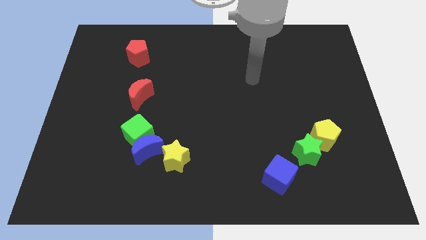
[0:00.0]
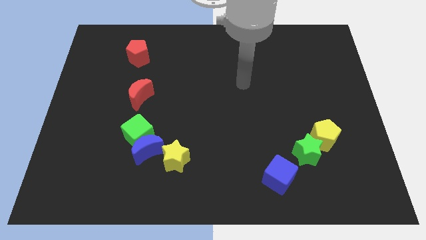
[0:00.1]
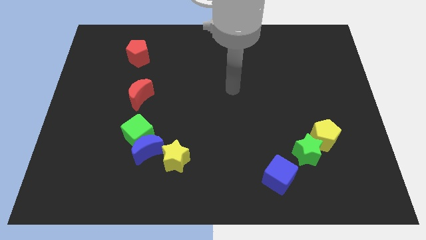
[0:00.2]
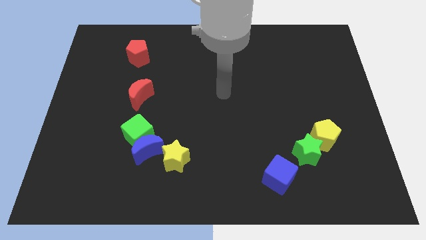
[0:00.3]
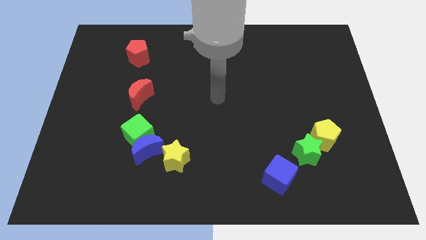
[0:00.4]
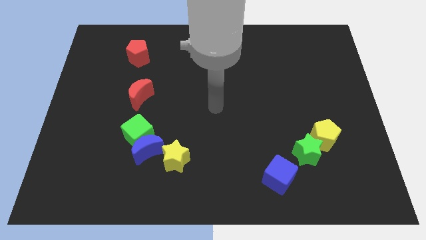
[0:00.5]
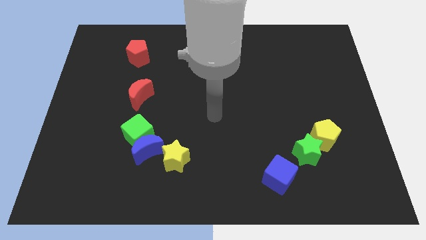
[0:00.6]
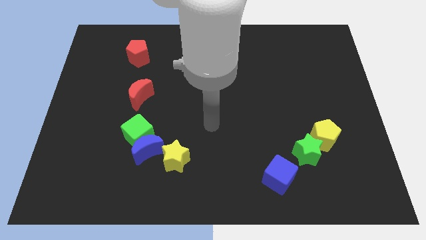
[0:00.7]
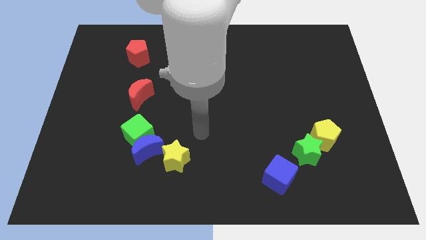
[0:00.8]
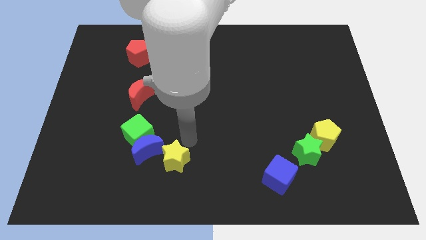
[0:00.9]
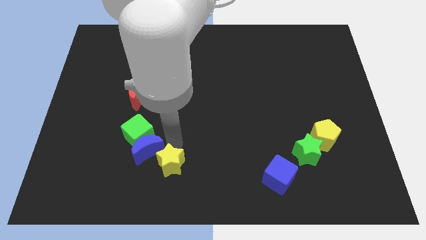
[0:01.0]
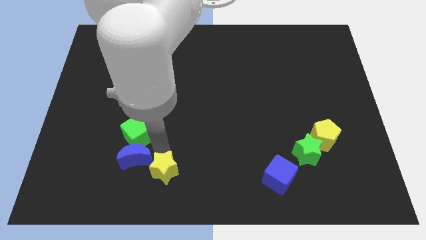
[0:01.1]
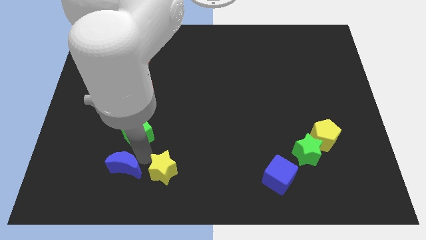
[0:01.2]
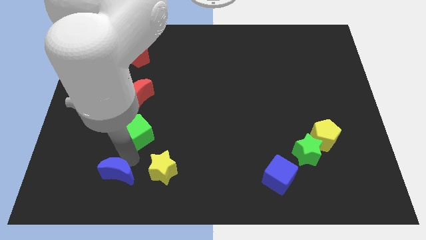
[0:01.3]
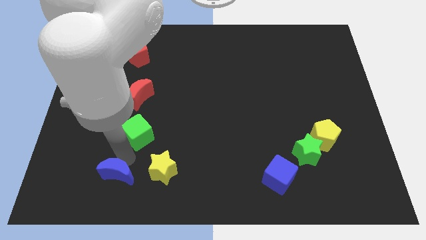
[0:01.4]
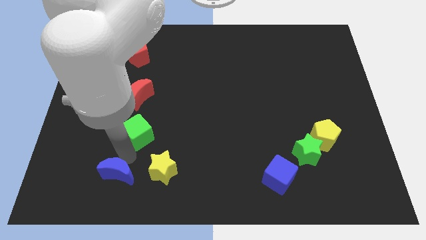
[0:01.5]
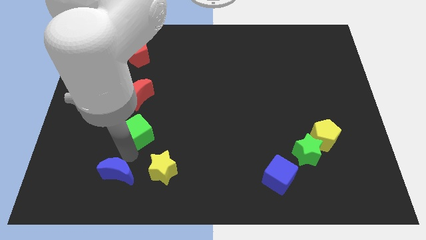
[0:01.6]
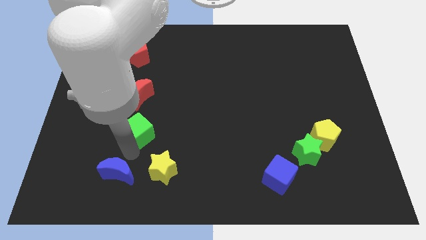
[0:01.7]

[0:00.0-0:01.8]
pull the green cube apart from the blue moon

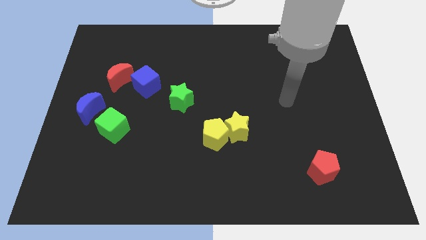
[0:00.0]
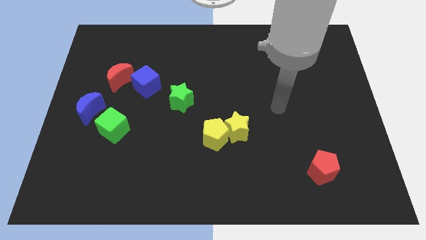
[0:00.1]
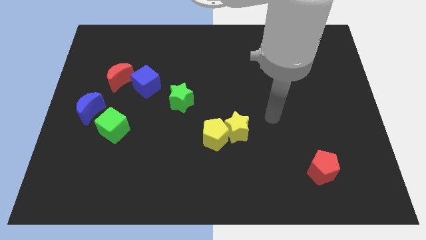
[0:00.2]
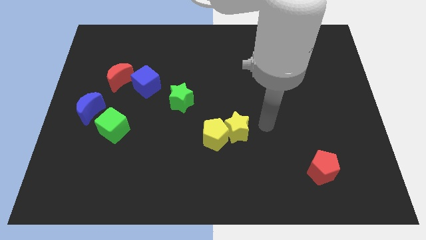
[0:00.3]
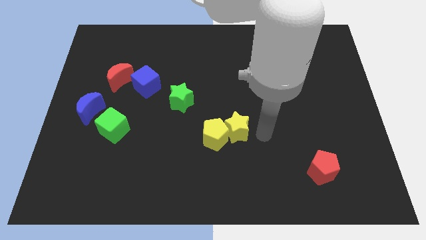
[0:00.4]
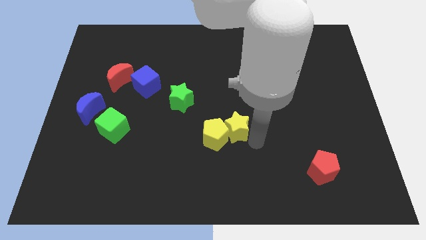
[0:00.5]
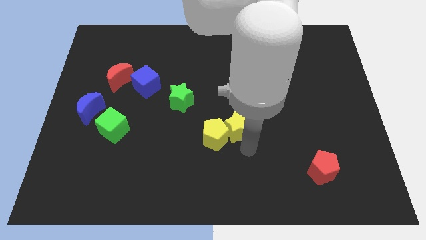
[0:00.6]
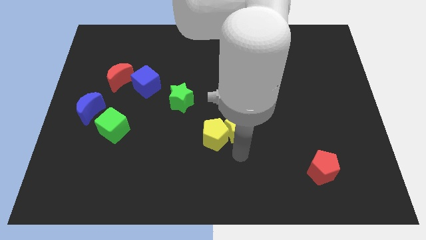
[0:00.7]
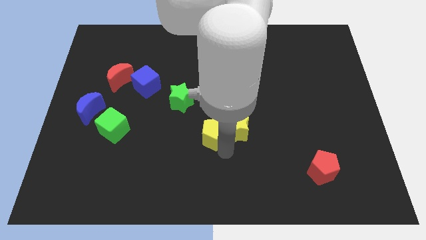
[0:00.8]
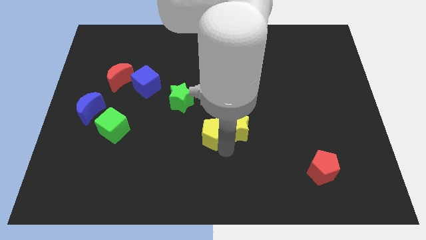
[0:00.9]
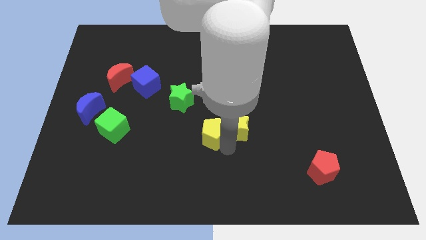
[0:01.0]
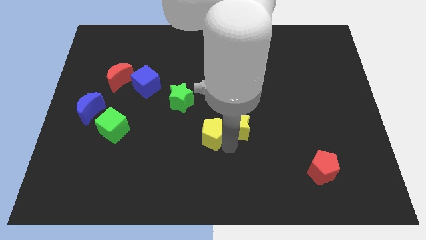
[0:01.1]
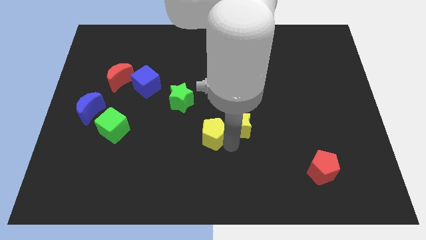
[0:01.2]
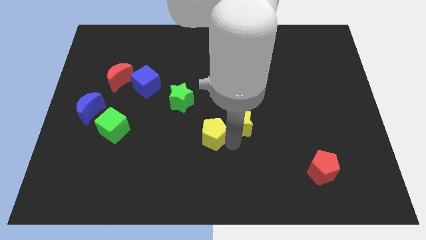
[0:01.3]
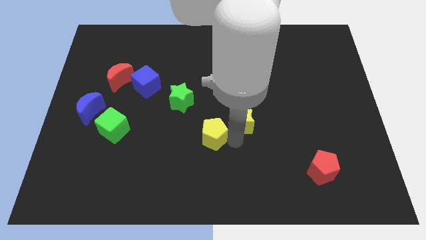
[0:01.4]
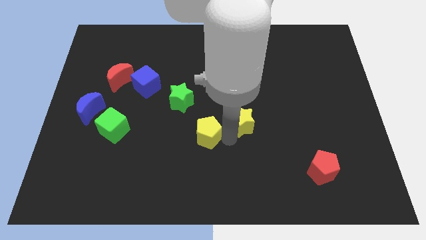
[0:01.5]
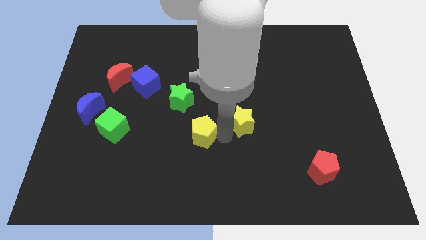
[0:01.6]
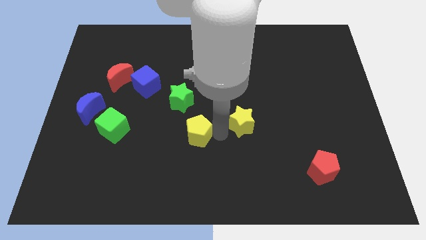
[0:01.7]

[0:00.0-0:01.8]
pull the yellow star apart from the yellow pentagon

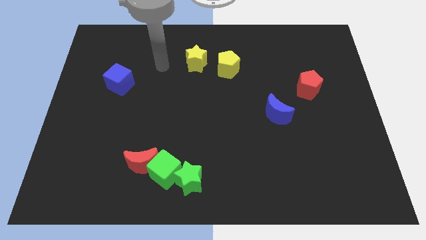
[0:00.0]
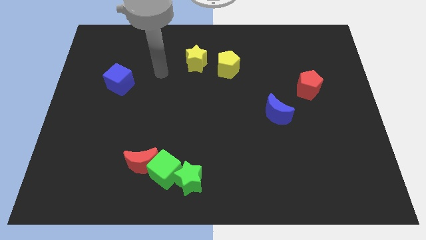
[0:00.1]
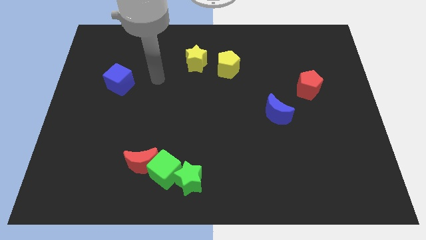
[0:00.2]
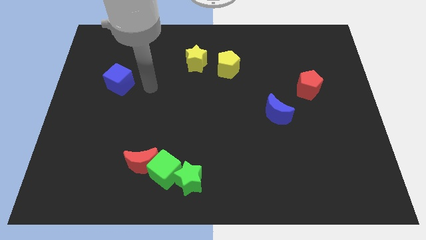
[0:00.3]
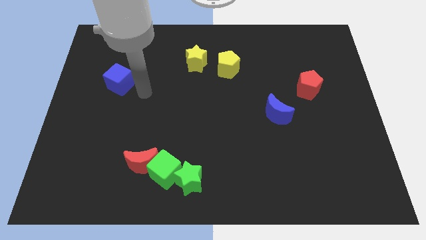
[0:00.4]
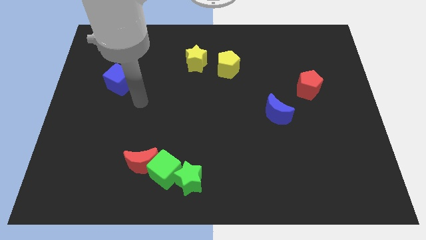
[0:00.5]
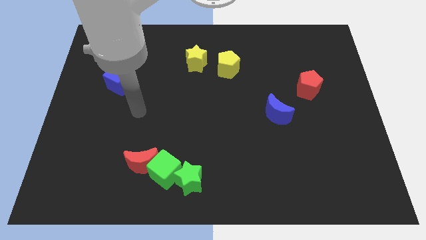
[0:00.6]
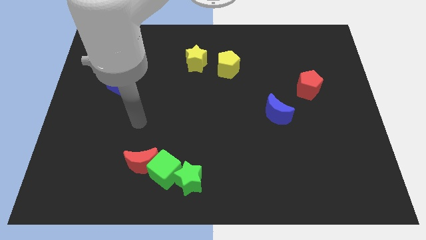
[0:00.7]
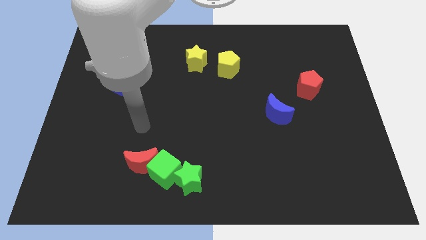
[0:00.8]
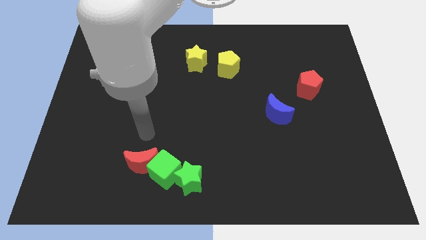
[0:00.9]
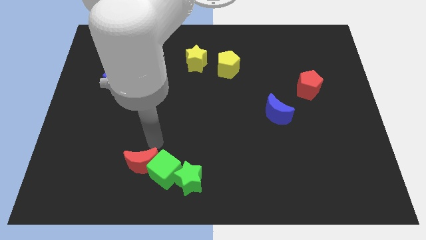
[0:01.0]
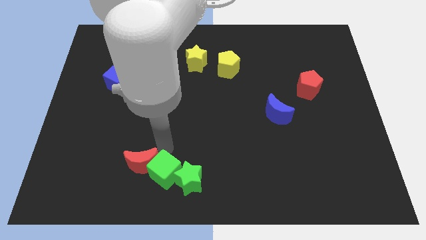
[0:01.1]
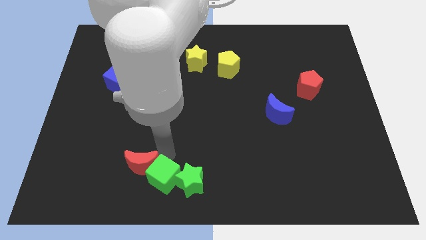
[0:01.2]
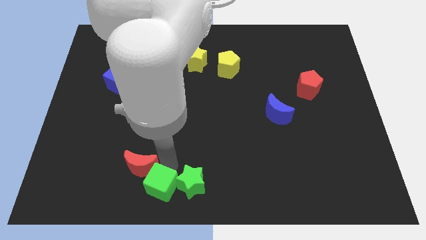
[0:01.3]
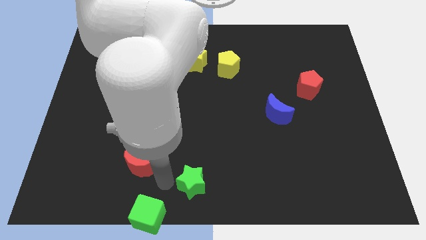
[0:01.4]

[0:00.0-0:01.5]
move the red moon away from the green cube

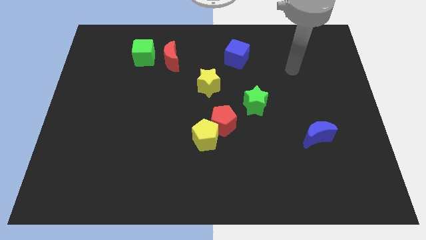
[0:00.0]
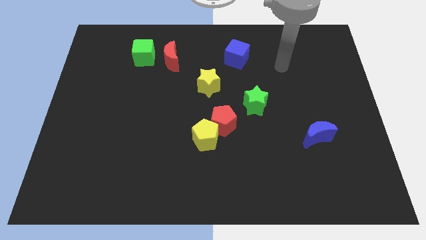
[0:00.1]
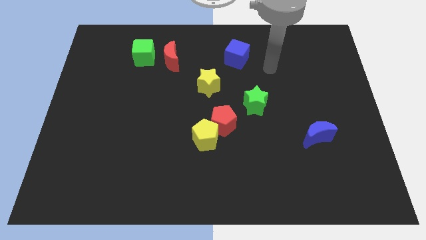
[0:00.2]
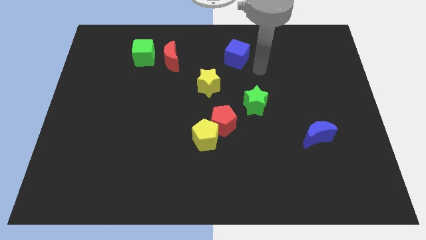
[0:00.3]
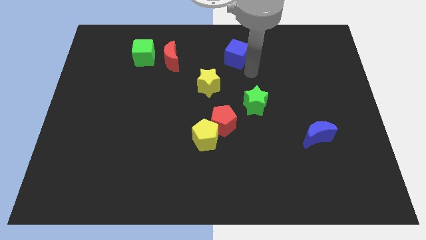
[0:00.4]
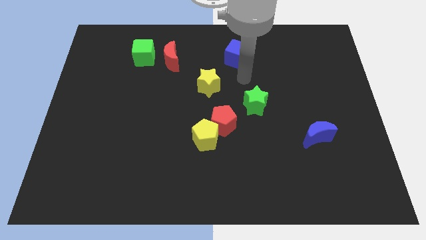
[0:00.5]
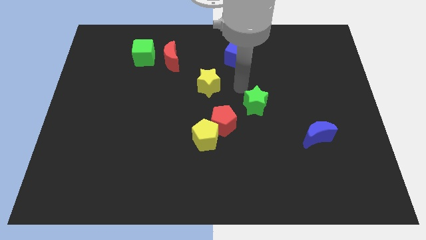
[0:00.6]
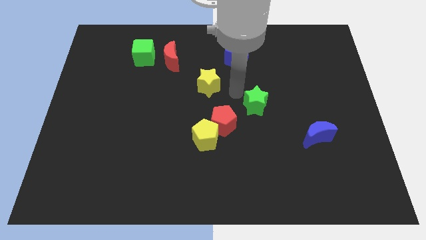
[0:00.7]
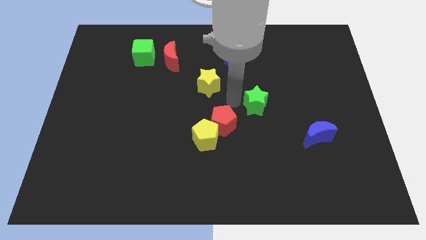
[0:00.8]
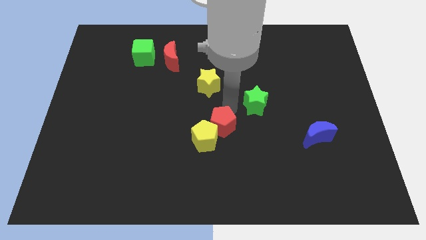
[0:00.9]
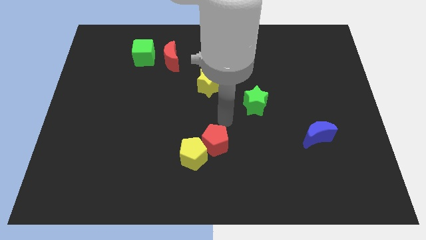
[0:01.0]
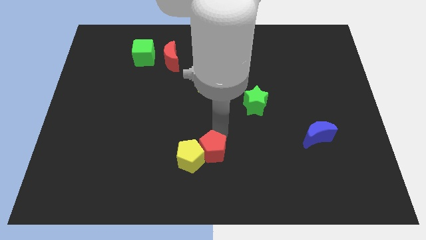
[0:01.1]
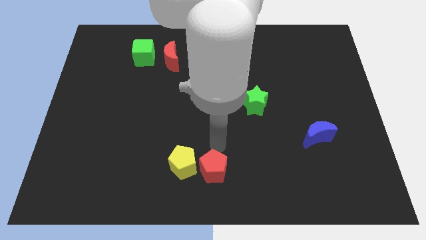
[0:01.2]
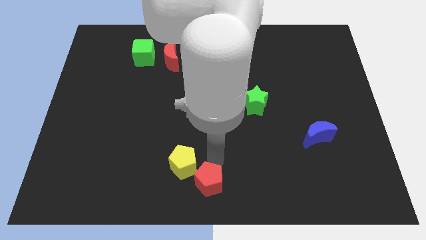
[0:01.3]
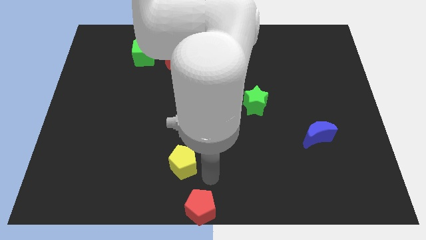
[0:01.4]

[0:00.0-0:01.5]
pull the yellow pentagon apart from the red pentagon

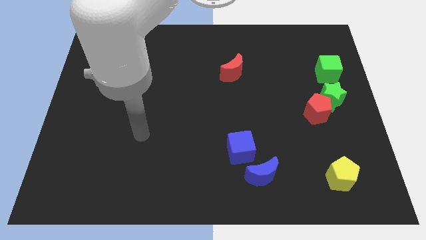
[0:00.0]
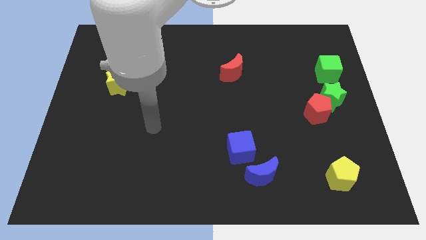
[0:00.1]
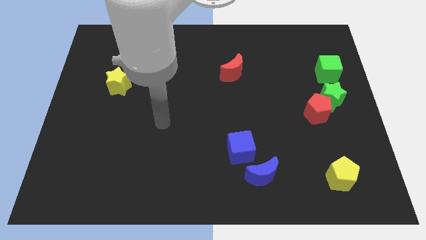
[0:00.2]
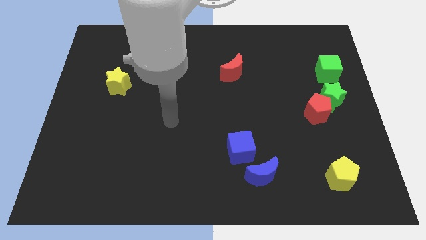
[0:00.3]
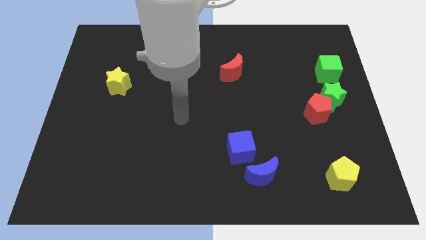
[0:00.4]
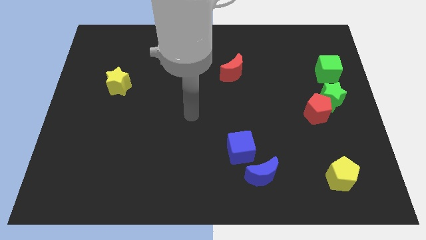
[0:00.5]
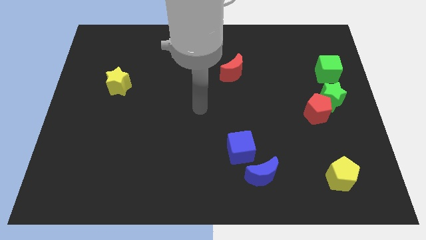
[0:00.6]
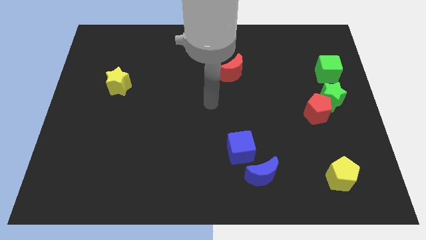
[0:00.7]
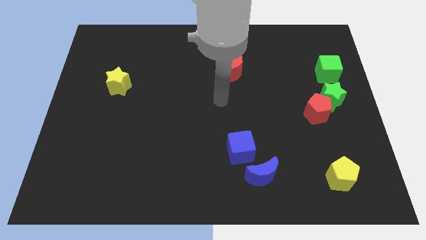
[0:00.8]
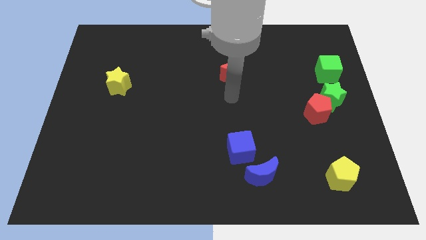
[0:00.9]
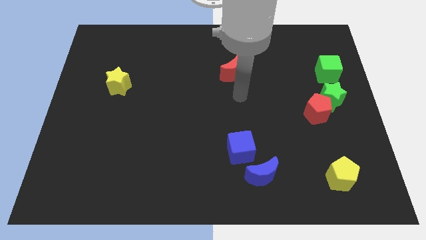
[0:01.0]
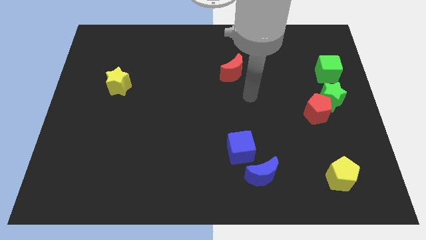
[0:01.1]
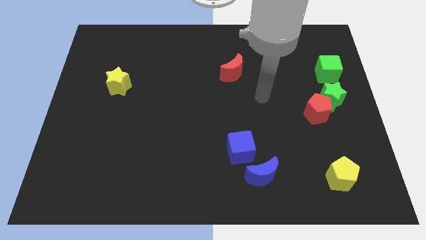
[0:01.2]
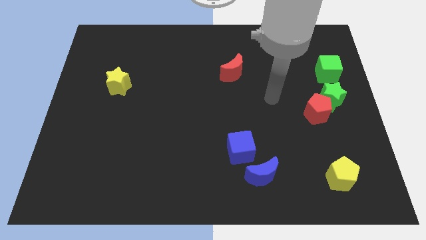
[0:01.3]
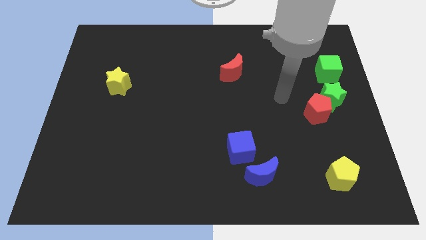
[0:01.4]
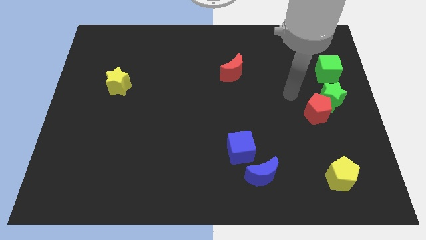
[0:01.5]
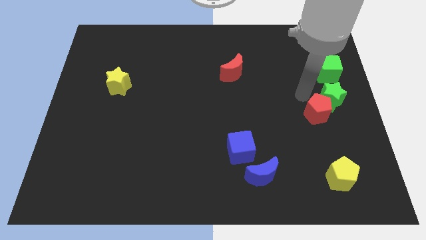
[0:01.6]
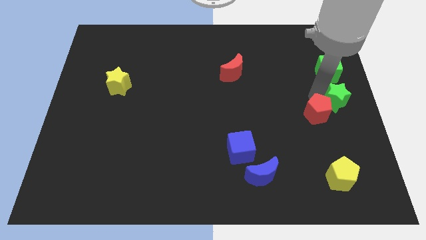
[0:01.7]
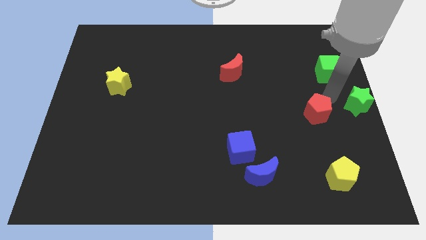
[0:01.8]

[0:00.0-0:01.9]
pull the red pentagon apart from the green star

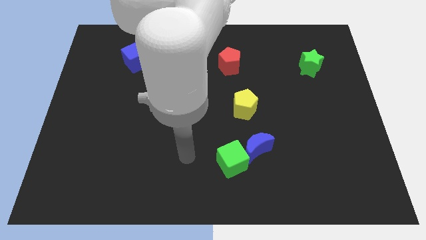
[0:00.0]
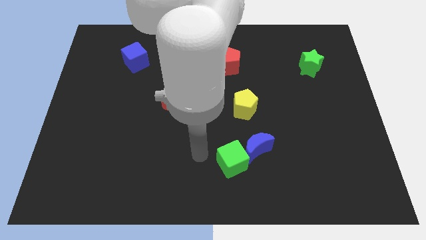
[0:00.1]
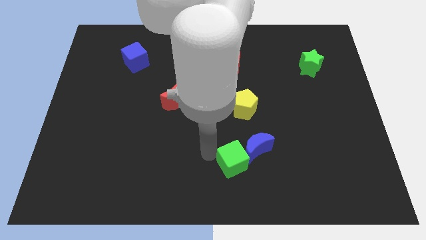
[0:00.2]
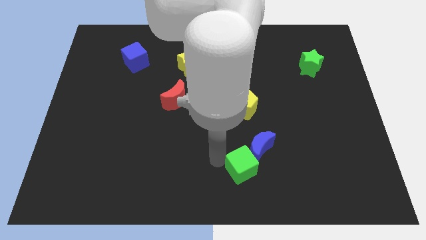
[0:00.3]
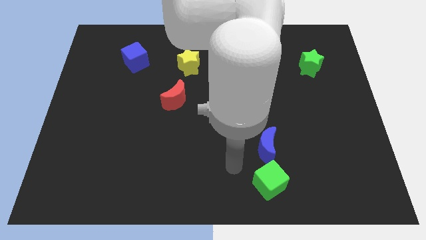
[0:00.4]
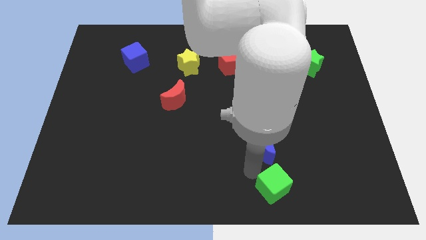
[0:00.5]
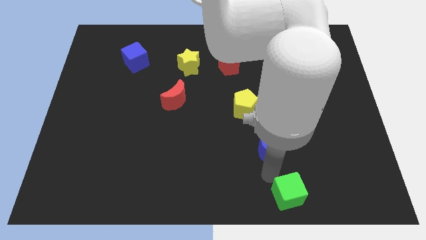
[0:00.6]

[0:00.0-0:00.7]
move the blue moon away from the green cube
